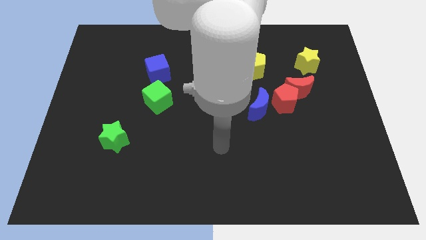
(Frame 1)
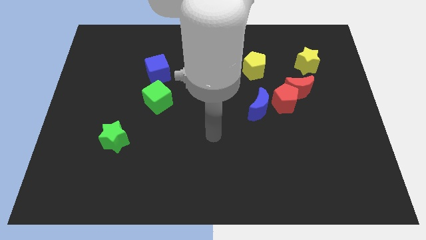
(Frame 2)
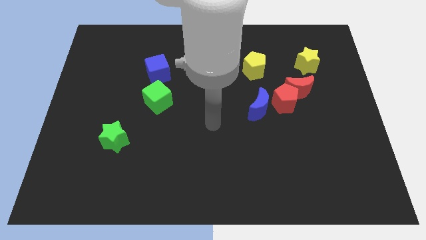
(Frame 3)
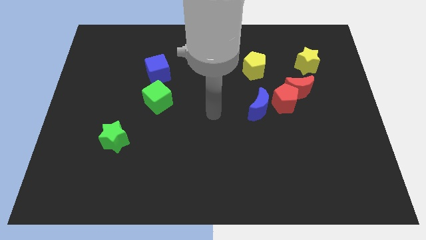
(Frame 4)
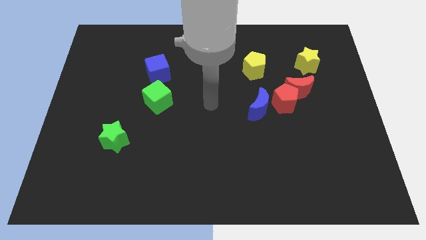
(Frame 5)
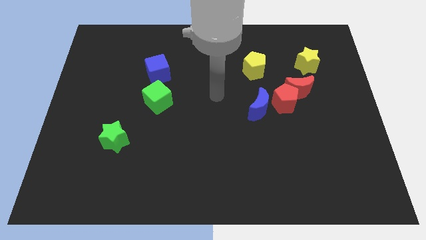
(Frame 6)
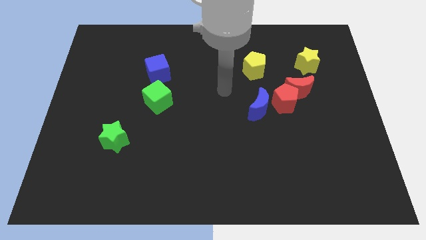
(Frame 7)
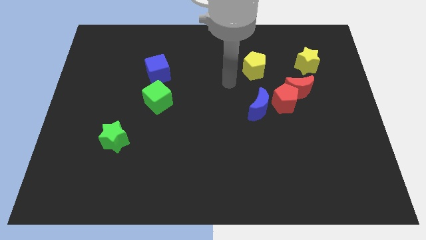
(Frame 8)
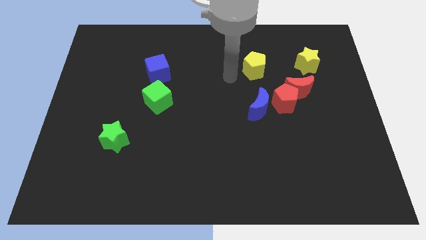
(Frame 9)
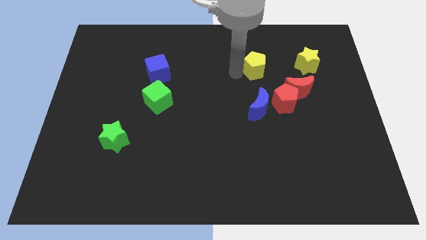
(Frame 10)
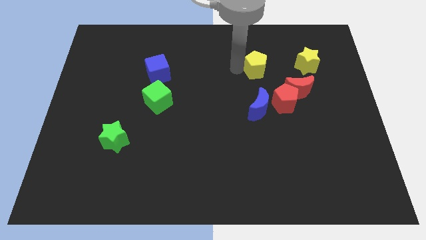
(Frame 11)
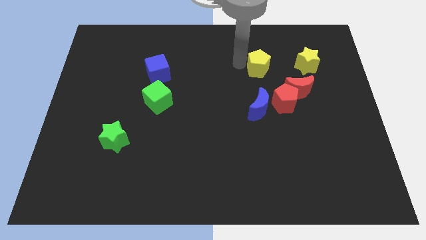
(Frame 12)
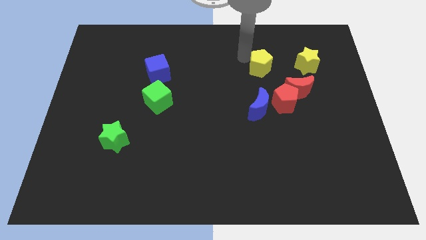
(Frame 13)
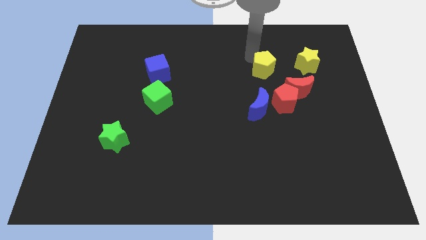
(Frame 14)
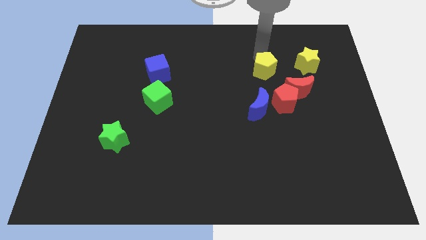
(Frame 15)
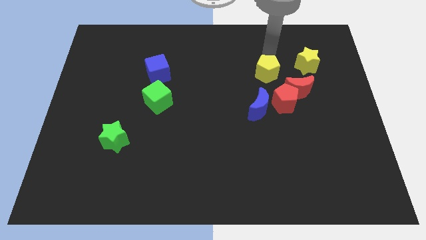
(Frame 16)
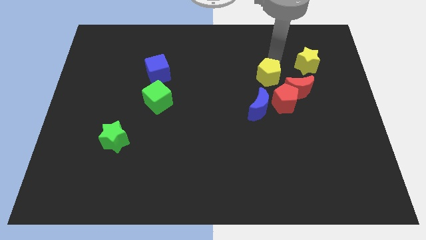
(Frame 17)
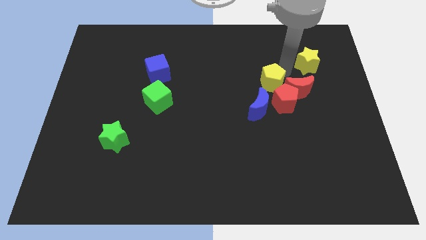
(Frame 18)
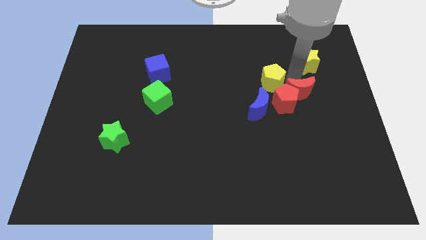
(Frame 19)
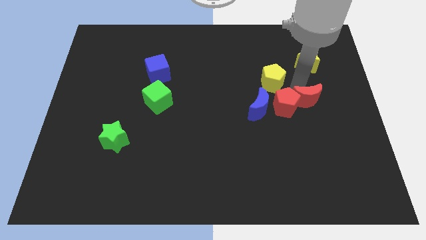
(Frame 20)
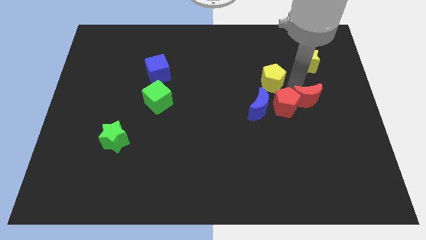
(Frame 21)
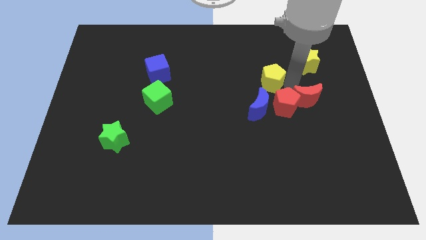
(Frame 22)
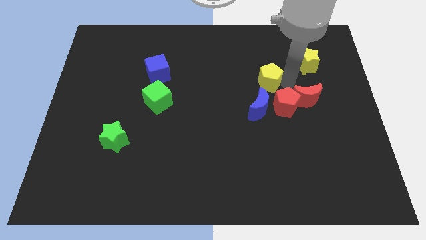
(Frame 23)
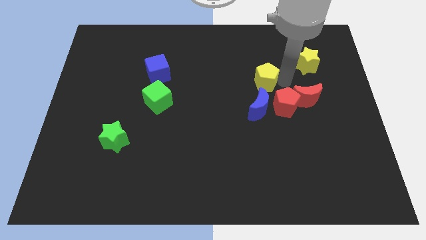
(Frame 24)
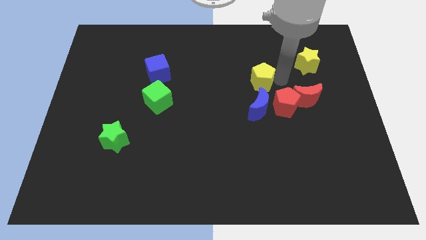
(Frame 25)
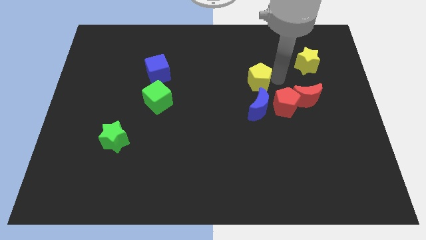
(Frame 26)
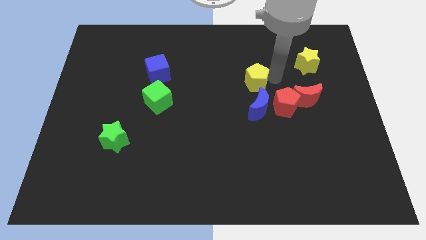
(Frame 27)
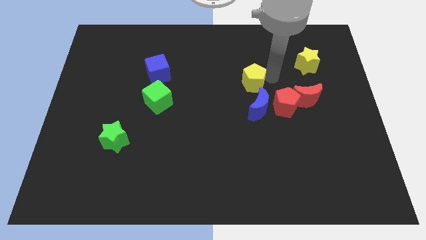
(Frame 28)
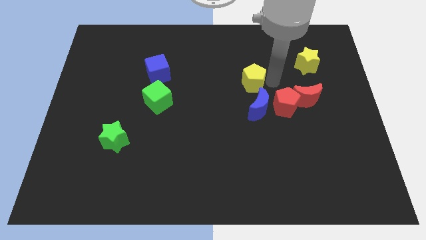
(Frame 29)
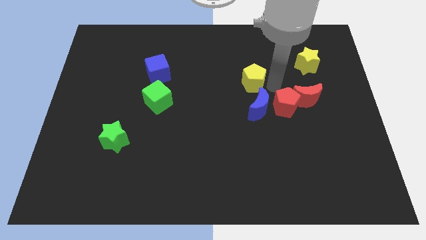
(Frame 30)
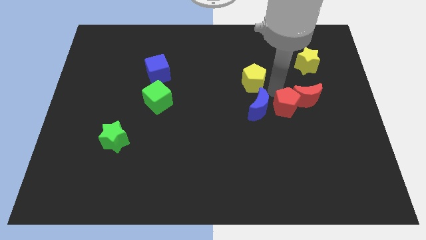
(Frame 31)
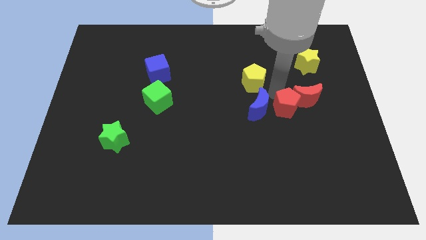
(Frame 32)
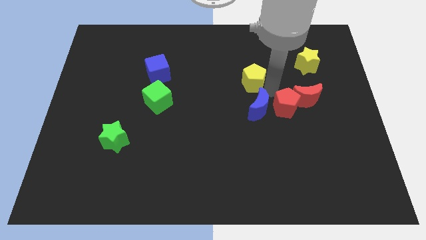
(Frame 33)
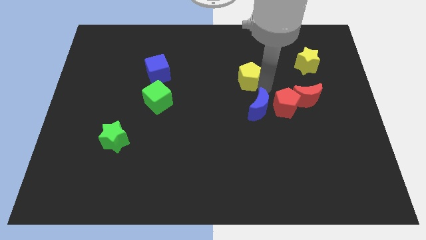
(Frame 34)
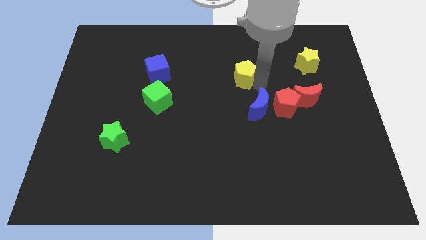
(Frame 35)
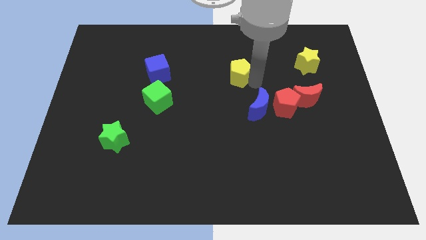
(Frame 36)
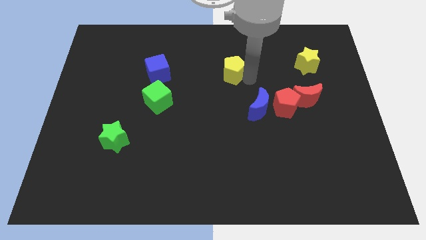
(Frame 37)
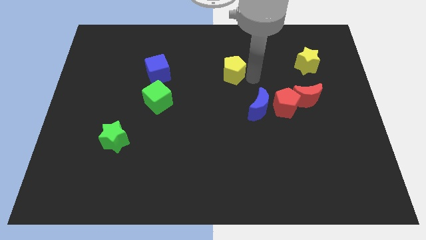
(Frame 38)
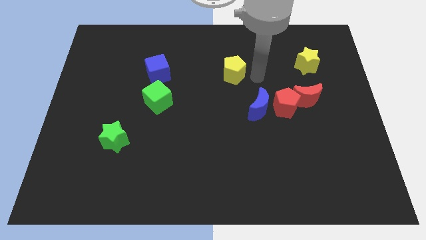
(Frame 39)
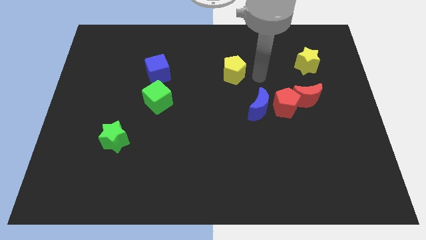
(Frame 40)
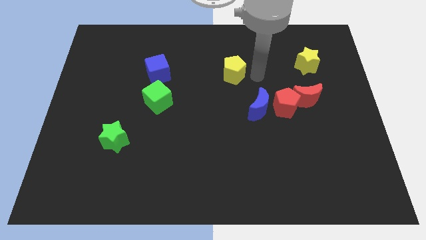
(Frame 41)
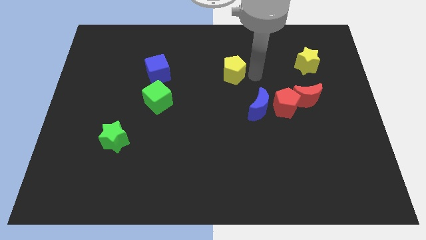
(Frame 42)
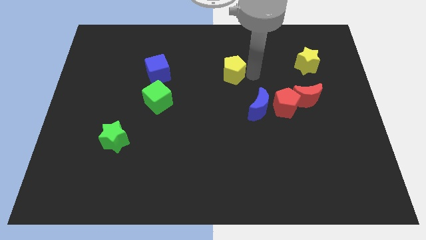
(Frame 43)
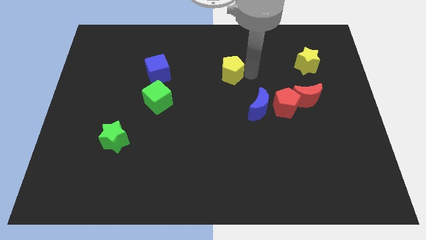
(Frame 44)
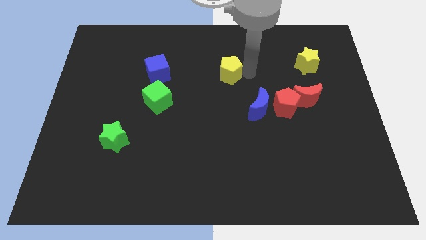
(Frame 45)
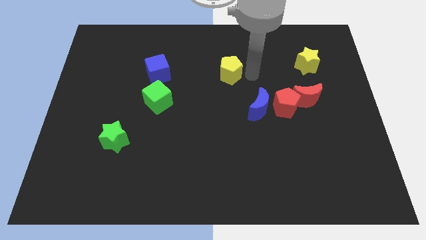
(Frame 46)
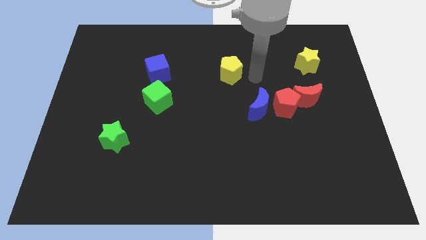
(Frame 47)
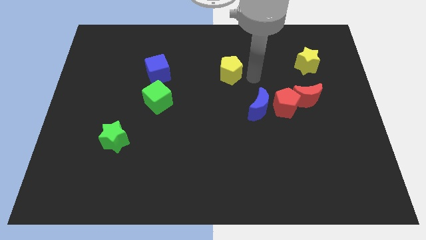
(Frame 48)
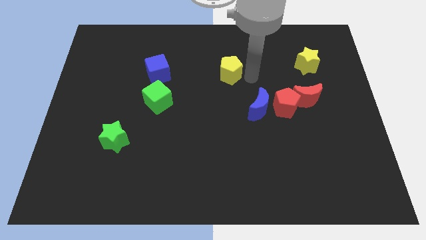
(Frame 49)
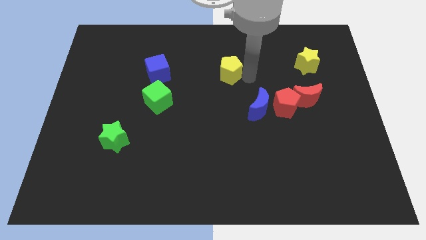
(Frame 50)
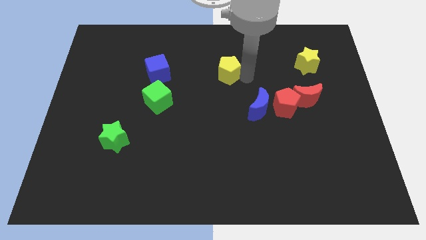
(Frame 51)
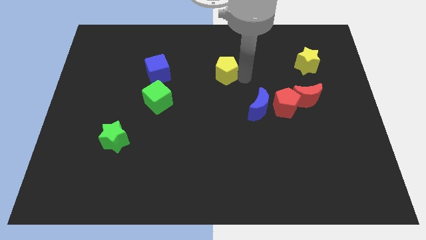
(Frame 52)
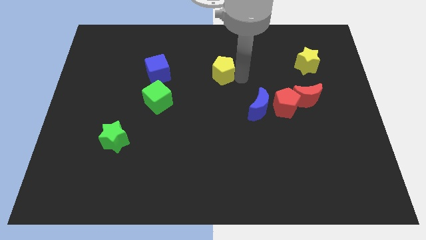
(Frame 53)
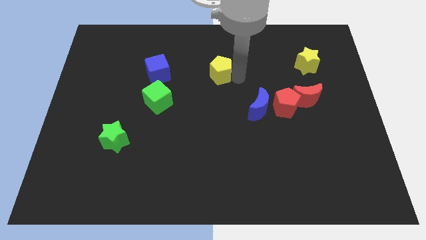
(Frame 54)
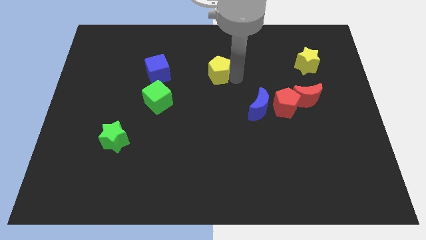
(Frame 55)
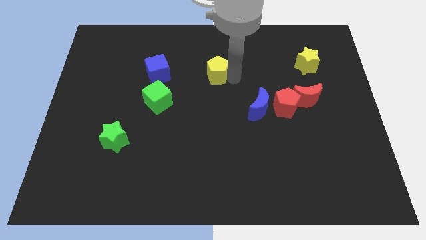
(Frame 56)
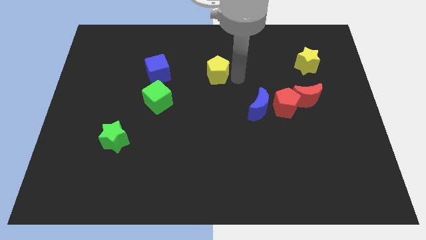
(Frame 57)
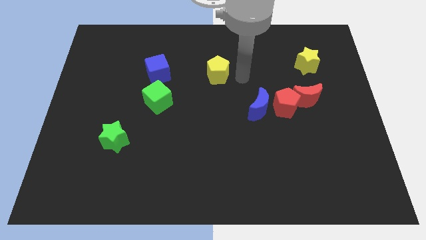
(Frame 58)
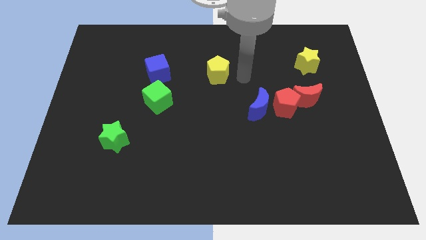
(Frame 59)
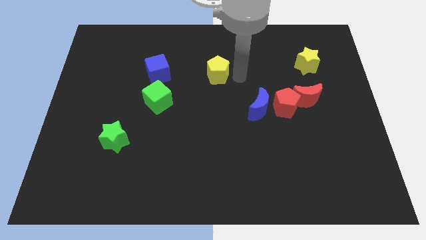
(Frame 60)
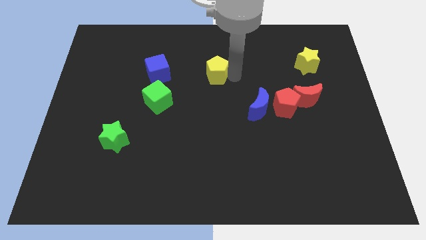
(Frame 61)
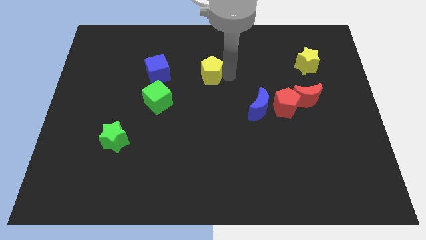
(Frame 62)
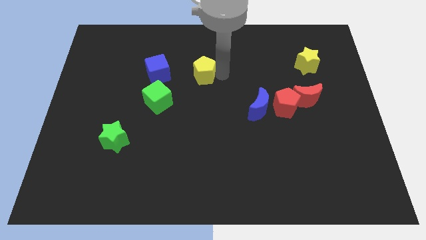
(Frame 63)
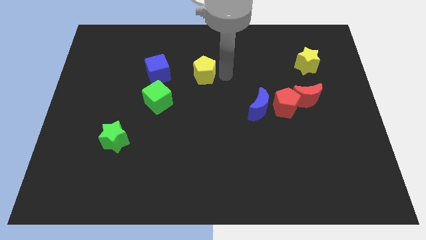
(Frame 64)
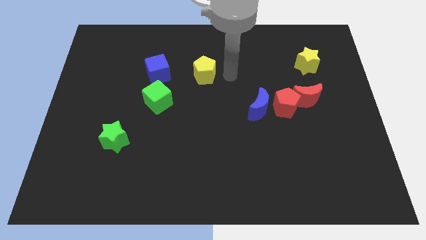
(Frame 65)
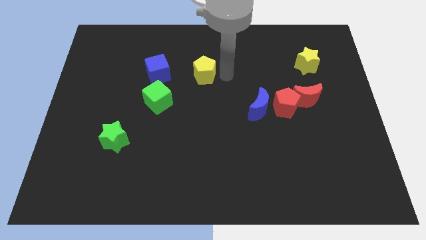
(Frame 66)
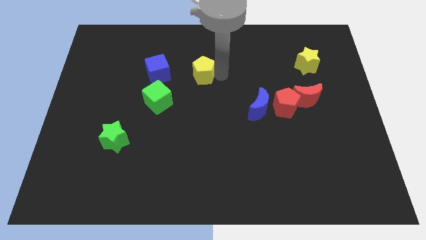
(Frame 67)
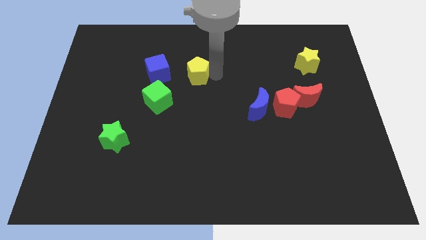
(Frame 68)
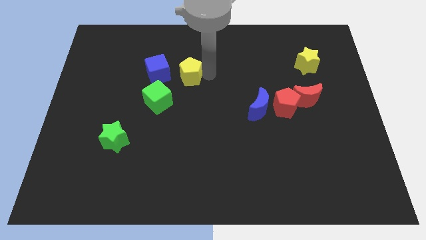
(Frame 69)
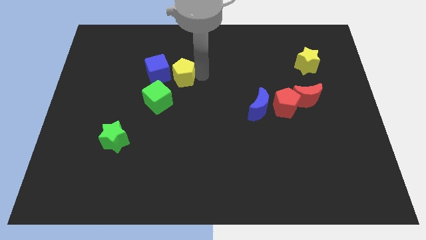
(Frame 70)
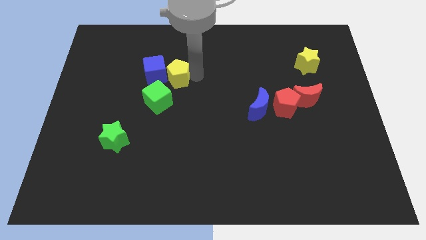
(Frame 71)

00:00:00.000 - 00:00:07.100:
push the yellow pentagon close to the blue cube
